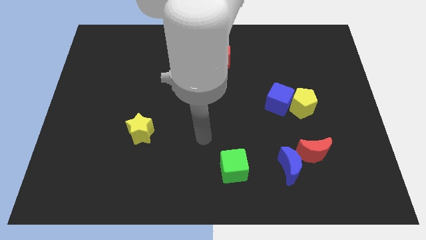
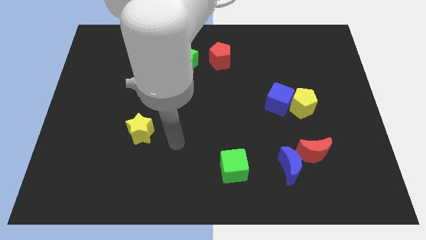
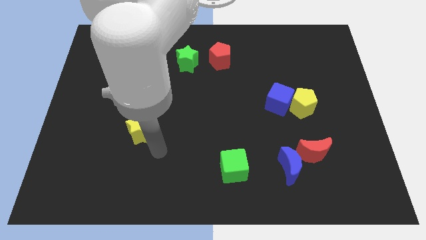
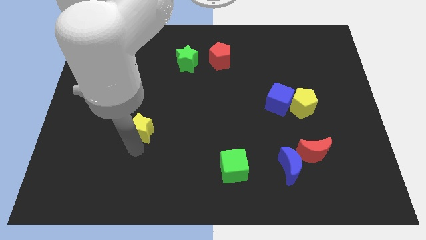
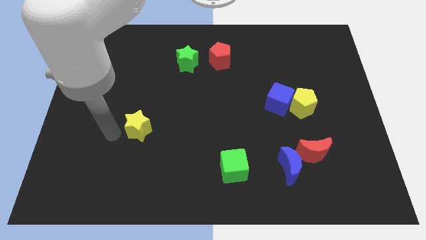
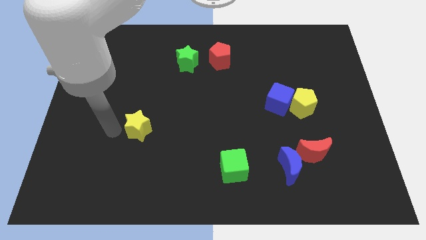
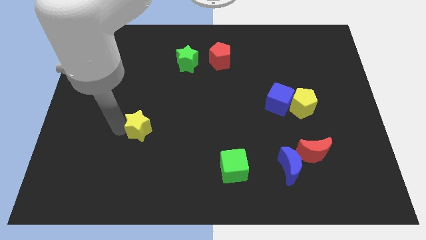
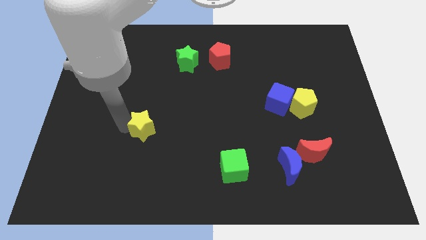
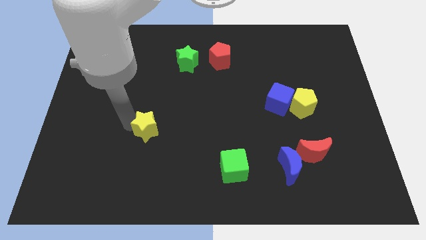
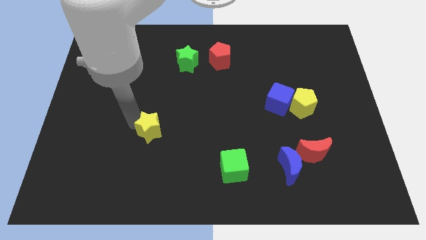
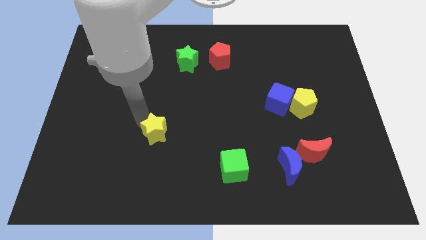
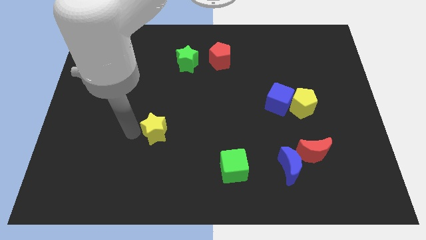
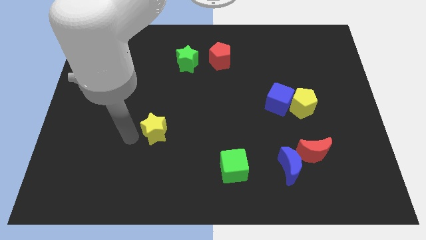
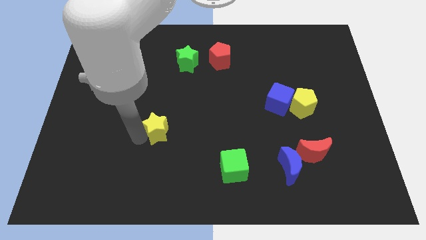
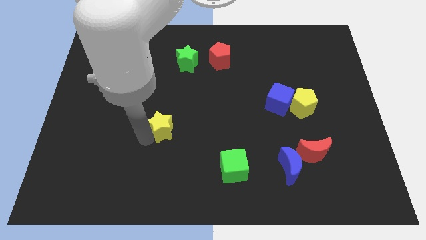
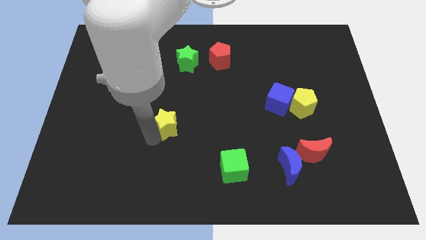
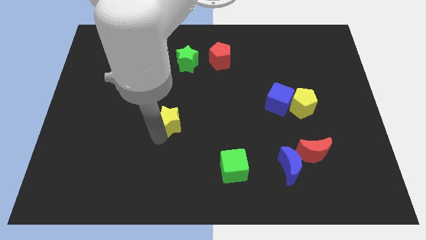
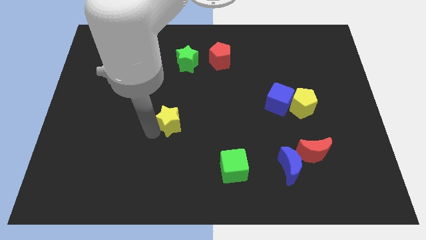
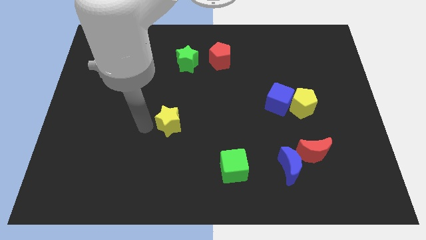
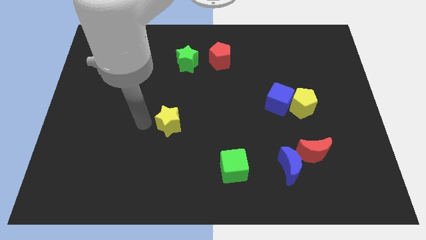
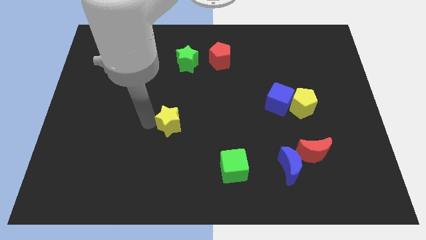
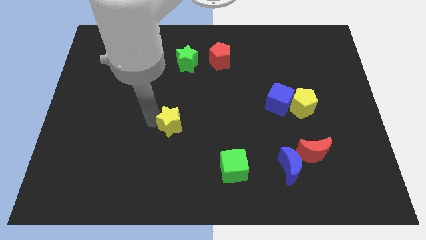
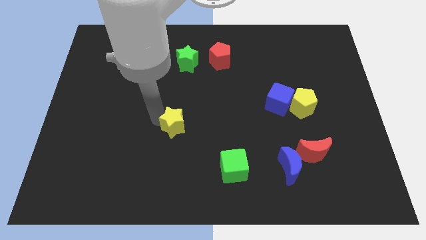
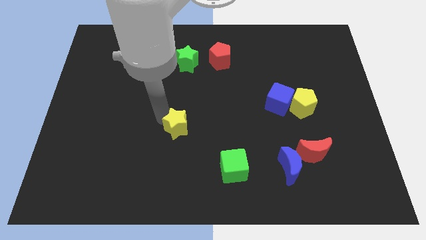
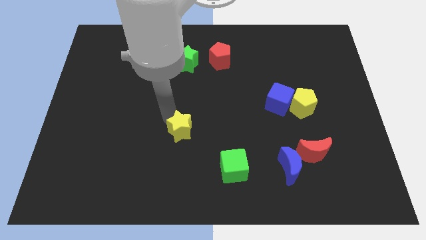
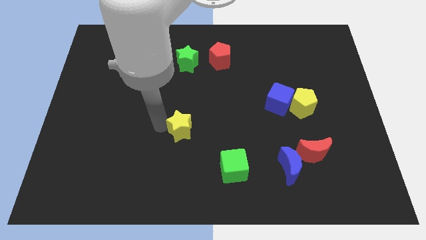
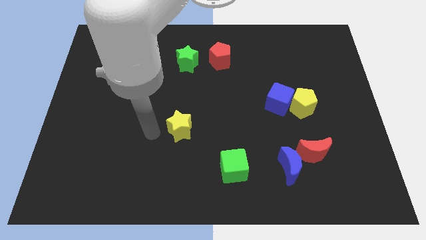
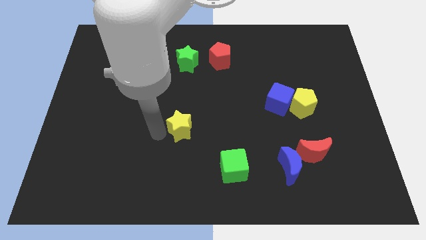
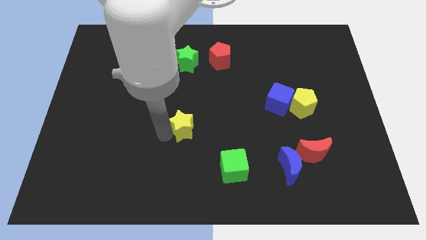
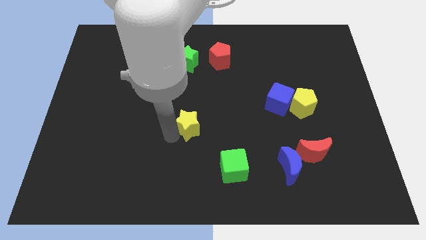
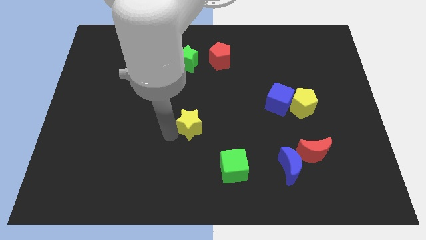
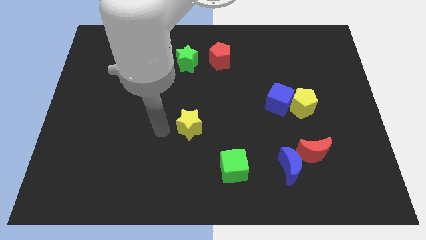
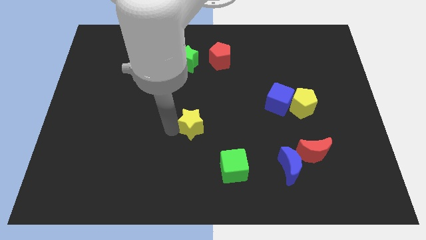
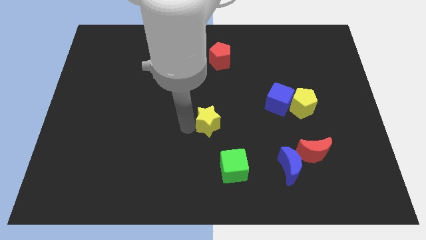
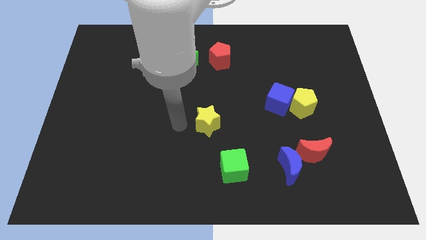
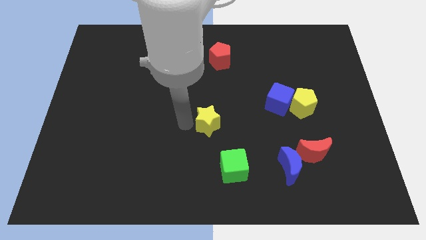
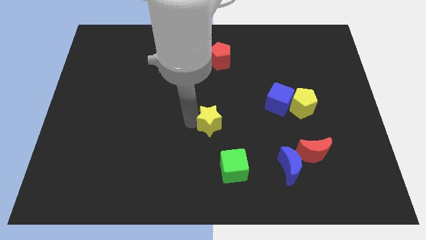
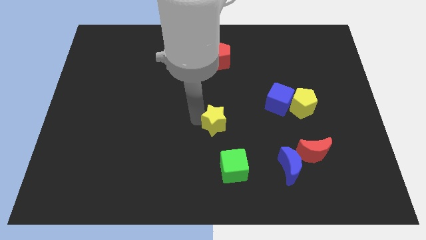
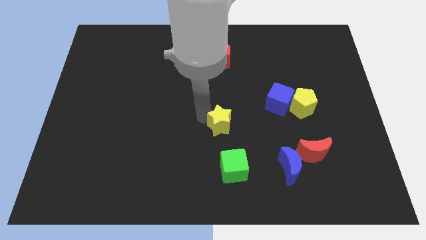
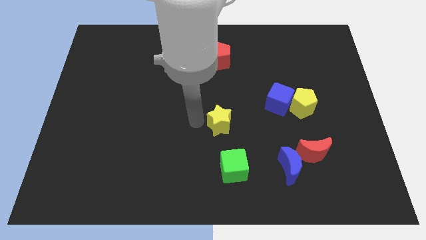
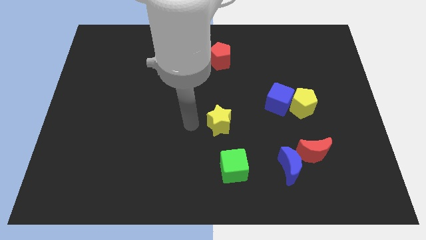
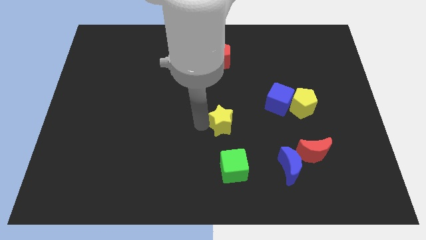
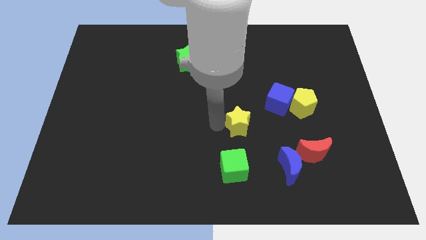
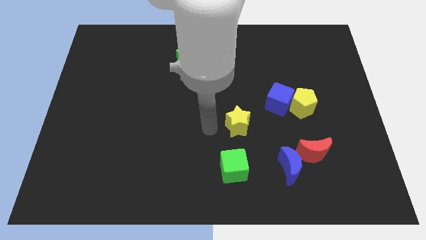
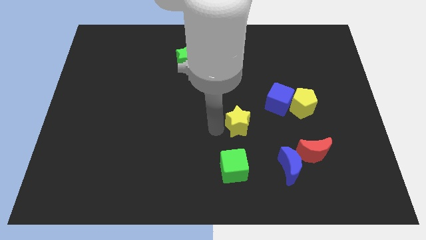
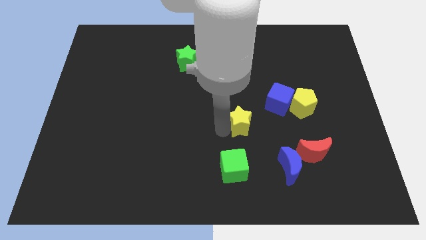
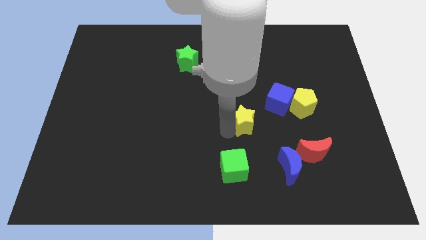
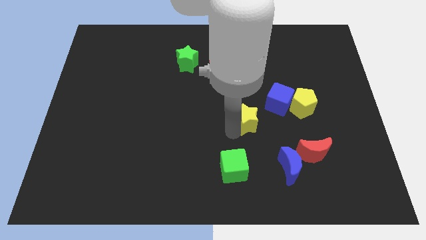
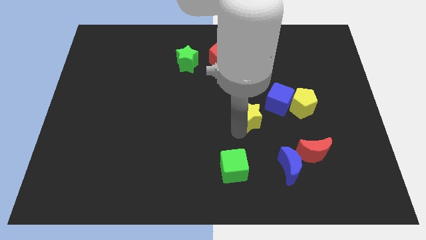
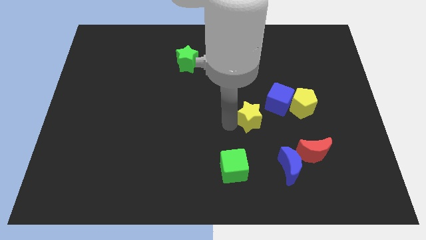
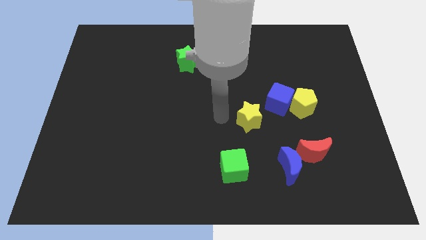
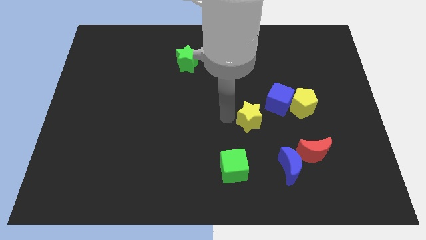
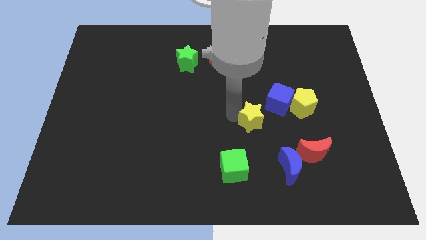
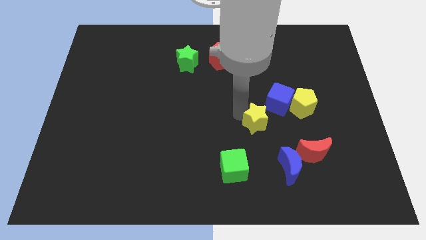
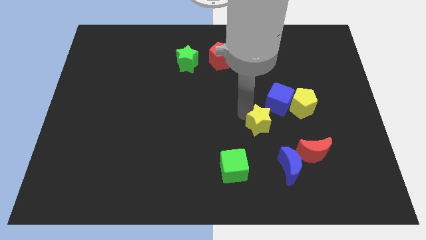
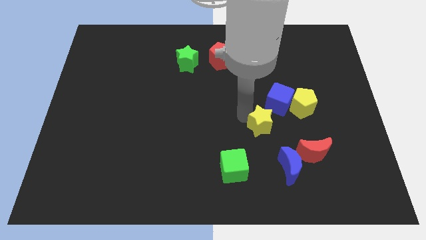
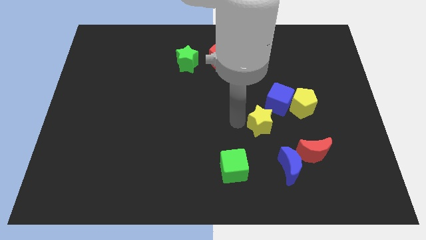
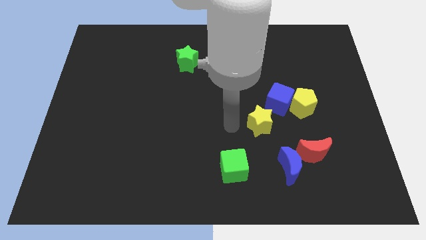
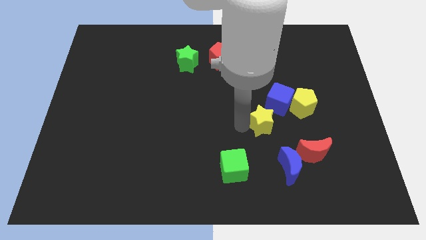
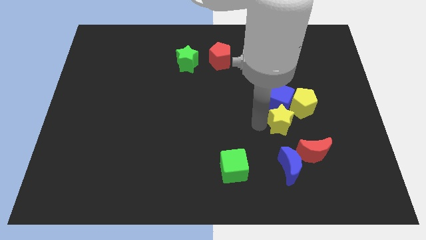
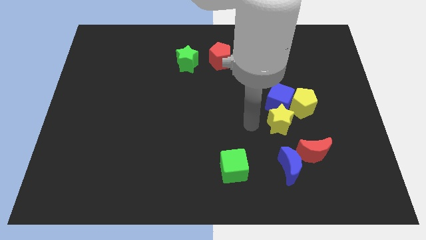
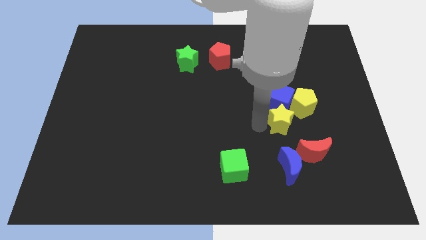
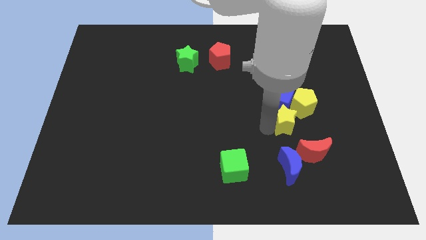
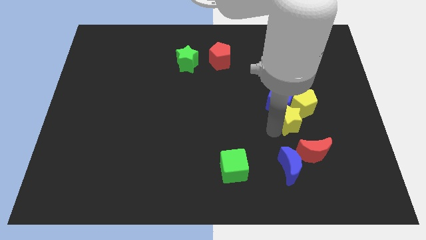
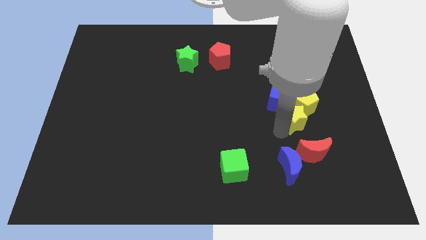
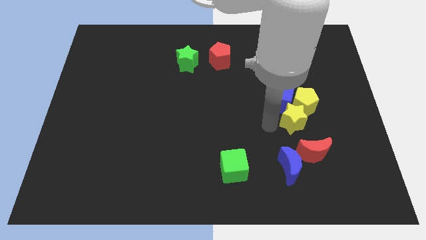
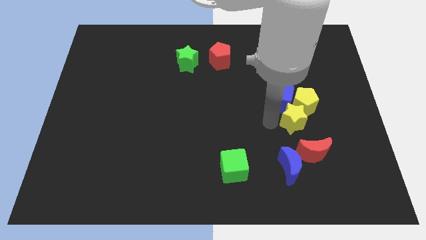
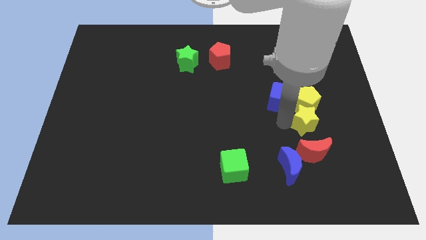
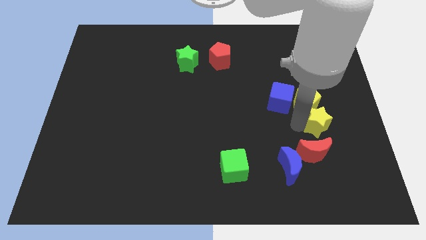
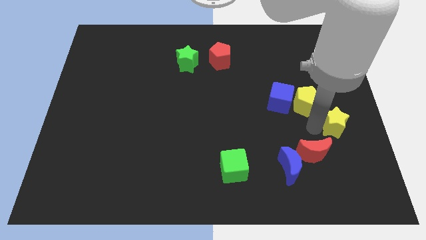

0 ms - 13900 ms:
put the yellow star to the right side
